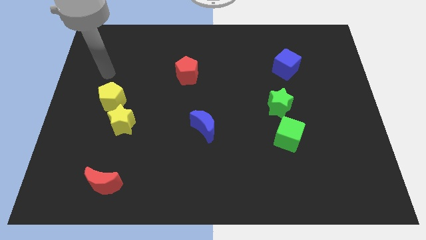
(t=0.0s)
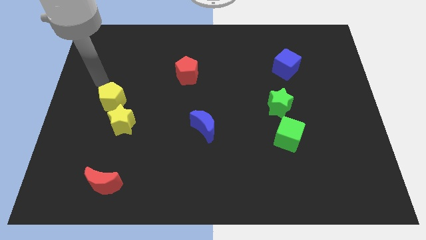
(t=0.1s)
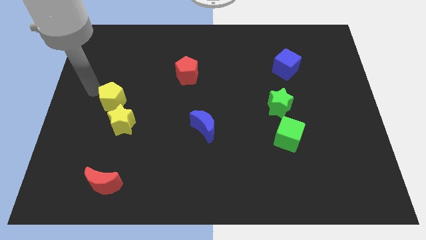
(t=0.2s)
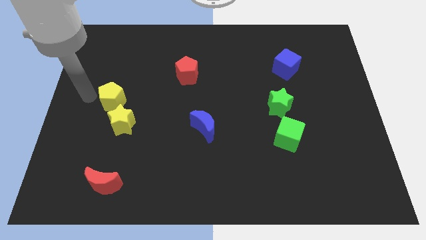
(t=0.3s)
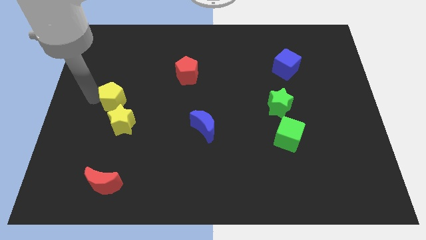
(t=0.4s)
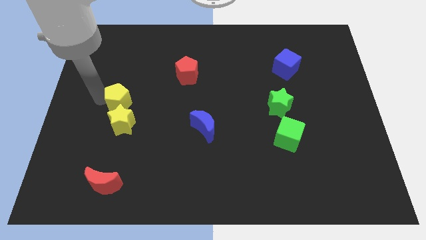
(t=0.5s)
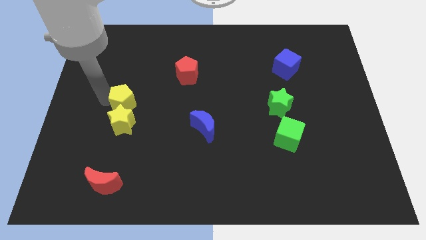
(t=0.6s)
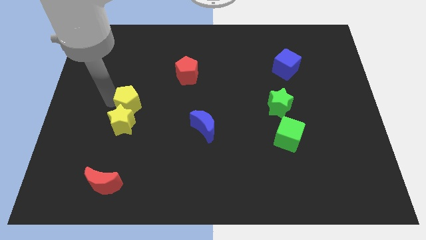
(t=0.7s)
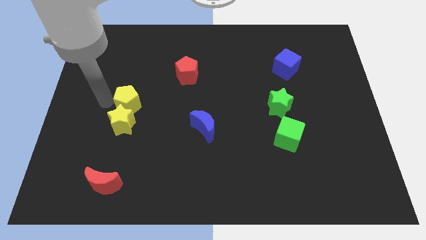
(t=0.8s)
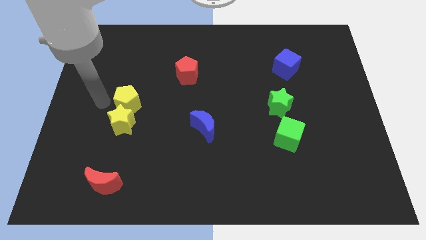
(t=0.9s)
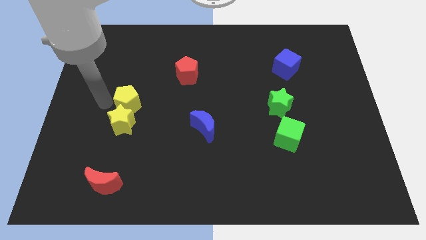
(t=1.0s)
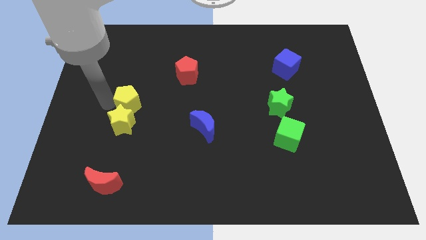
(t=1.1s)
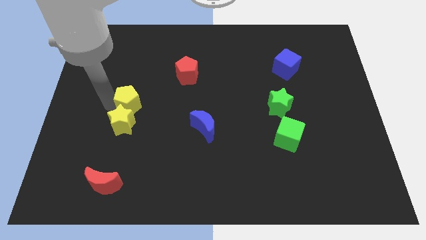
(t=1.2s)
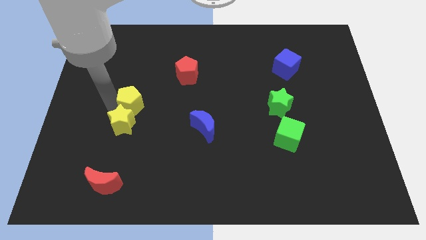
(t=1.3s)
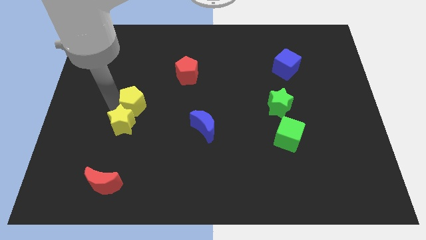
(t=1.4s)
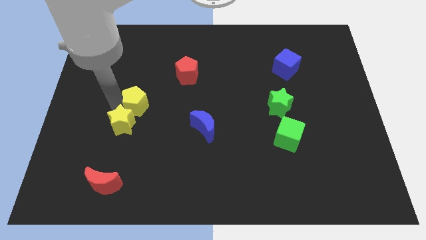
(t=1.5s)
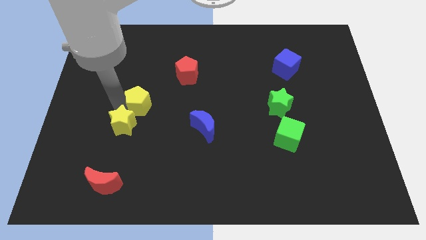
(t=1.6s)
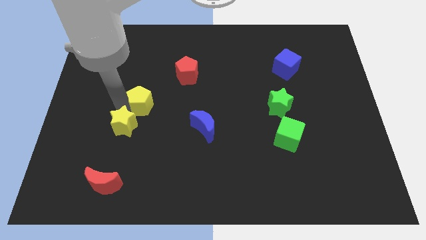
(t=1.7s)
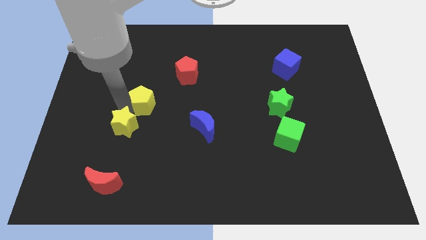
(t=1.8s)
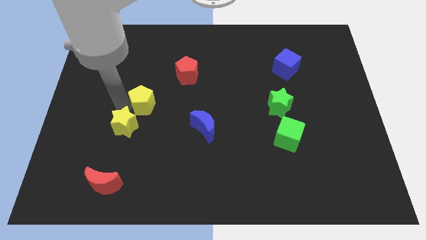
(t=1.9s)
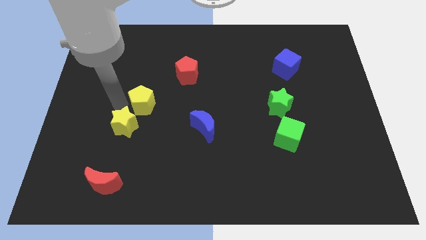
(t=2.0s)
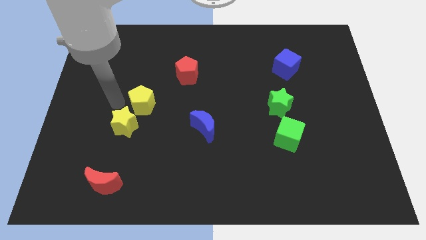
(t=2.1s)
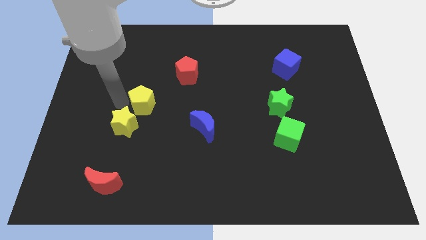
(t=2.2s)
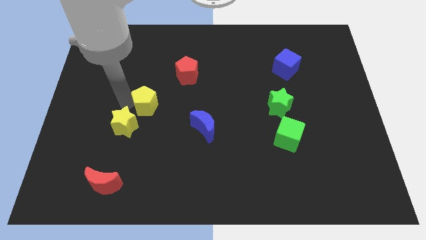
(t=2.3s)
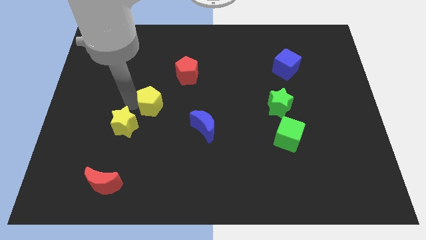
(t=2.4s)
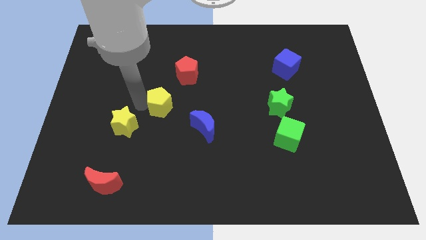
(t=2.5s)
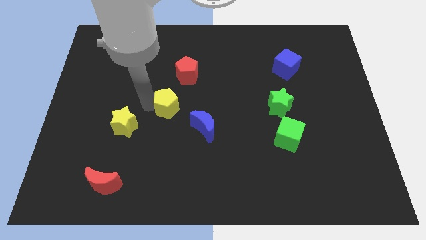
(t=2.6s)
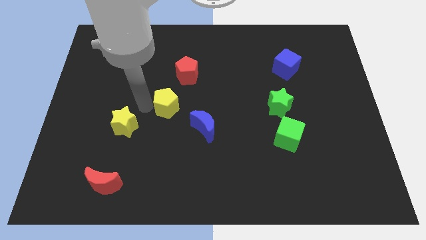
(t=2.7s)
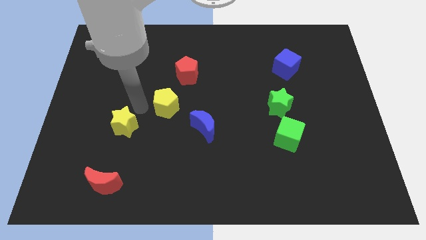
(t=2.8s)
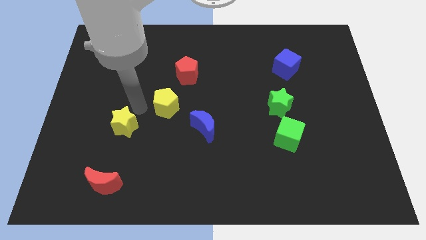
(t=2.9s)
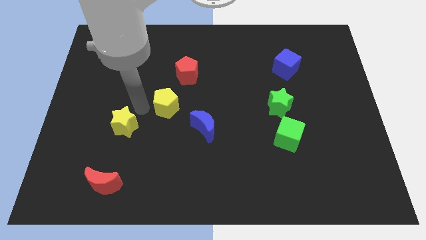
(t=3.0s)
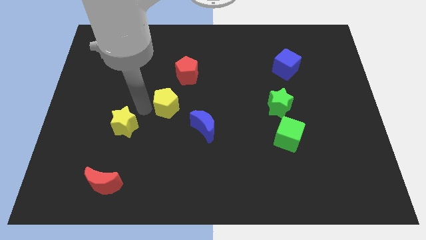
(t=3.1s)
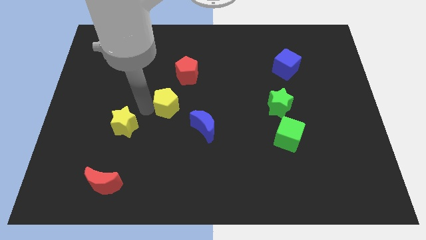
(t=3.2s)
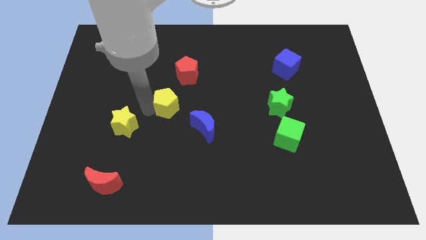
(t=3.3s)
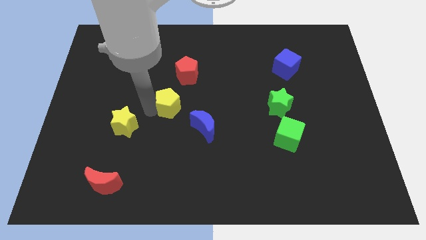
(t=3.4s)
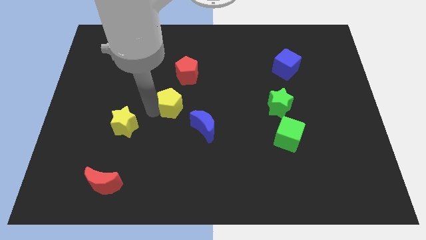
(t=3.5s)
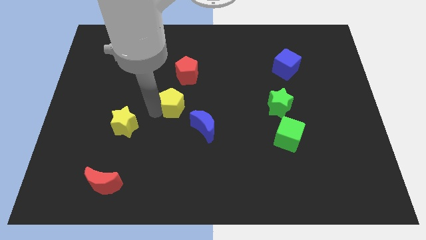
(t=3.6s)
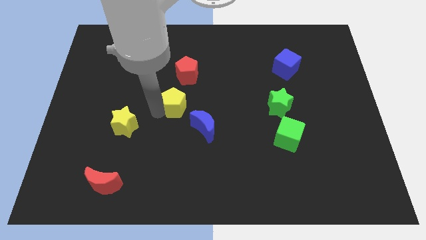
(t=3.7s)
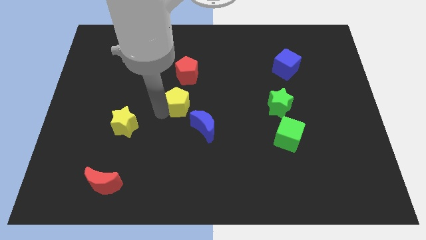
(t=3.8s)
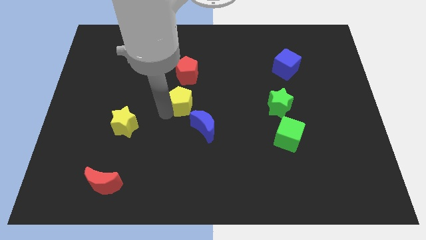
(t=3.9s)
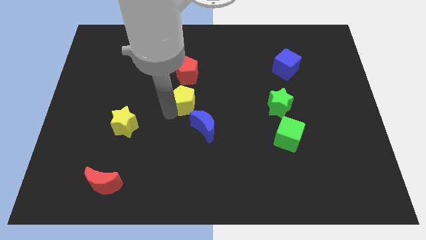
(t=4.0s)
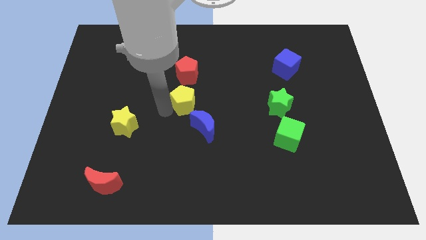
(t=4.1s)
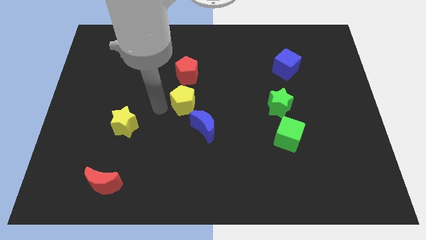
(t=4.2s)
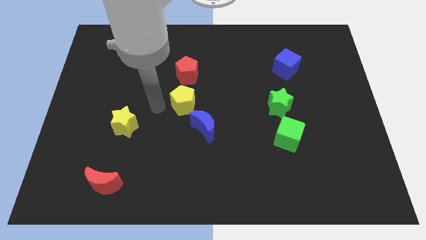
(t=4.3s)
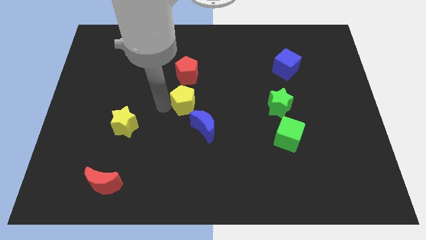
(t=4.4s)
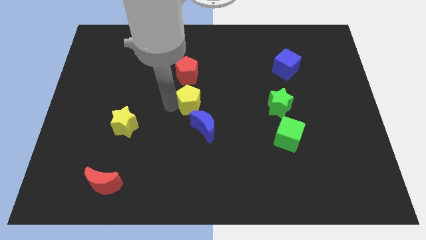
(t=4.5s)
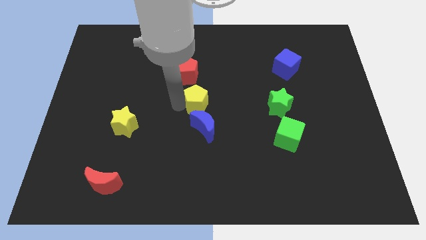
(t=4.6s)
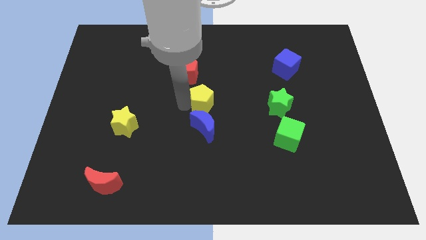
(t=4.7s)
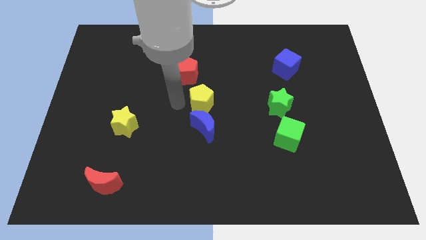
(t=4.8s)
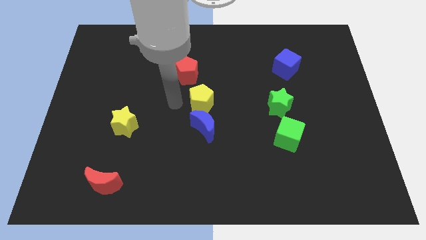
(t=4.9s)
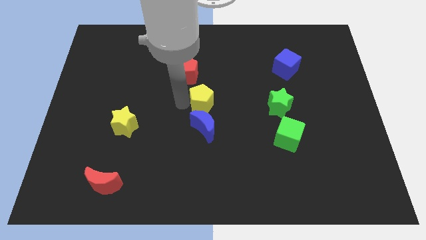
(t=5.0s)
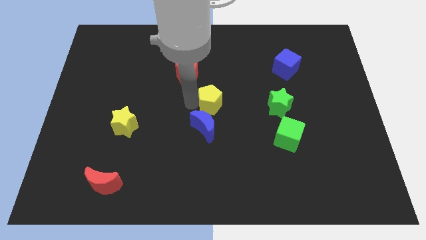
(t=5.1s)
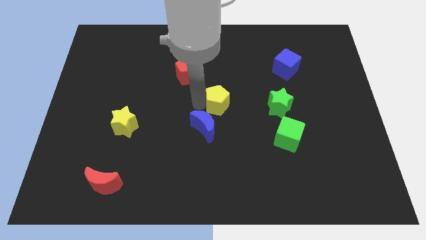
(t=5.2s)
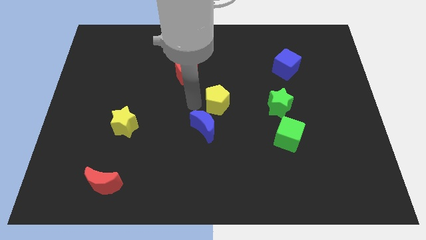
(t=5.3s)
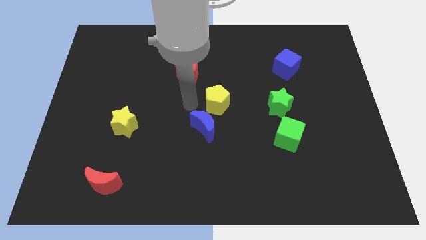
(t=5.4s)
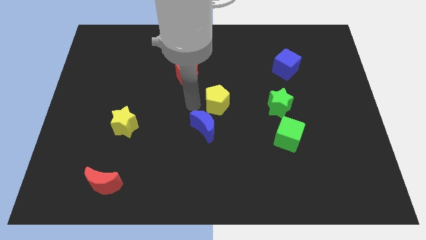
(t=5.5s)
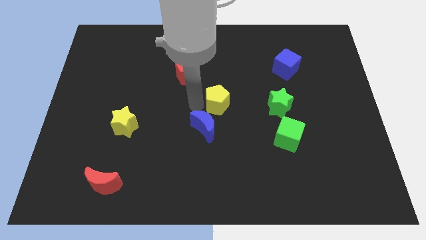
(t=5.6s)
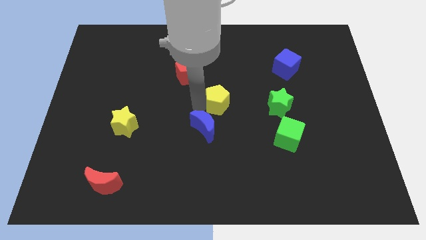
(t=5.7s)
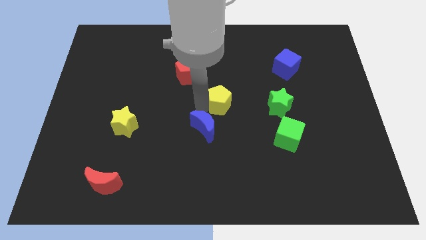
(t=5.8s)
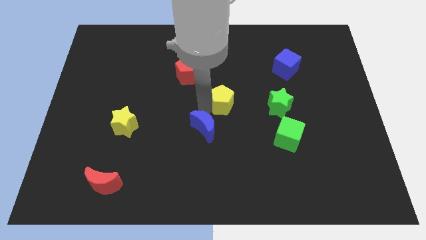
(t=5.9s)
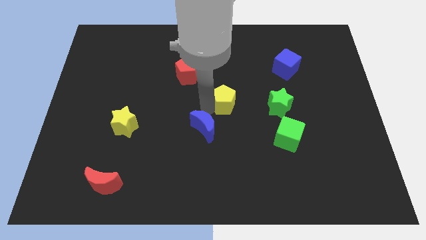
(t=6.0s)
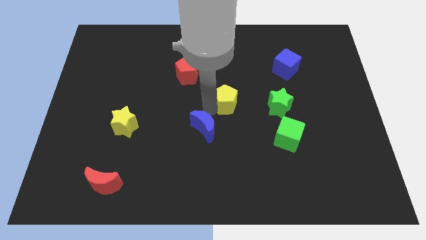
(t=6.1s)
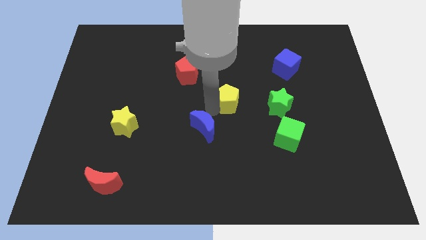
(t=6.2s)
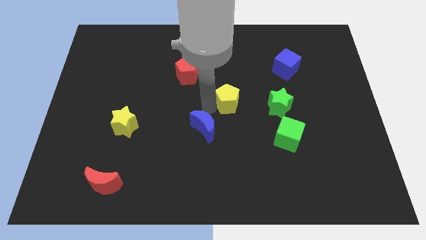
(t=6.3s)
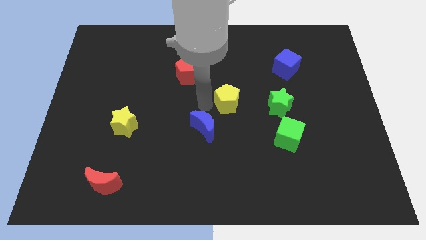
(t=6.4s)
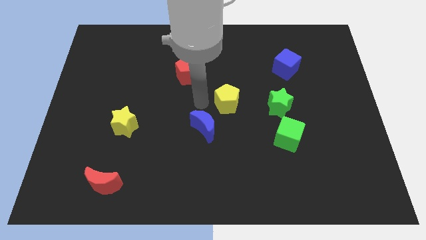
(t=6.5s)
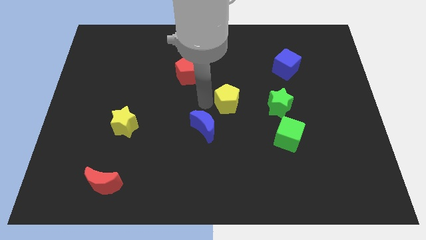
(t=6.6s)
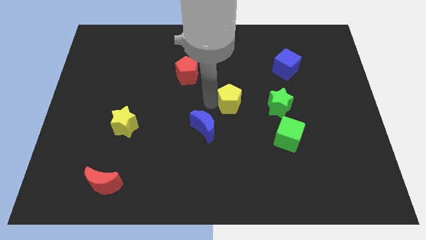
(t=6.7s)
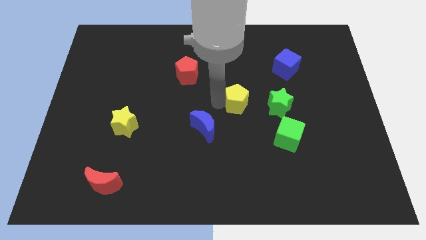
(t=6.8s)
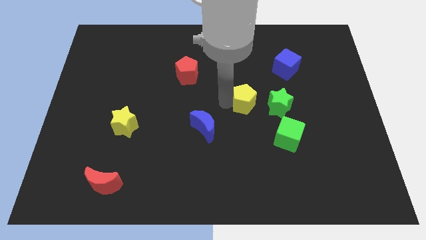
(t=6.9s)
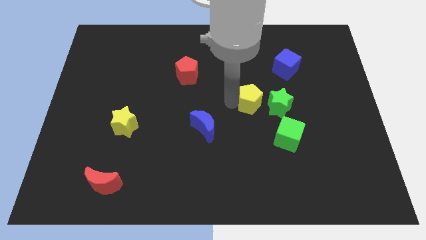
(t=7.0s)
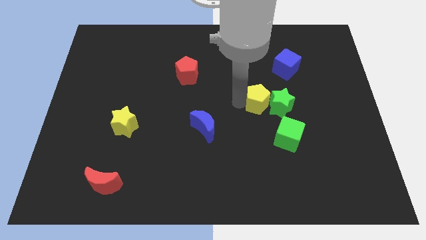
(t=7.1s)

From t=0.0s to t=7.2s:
slide the yellow pentagon next to the green star
